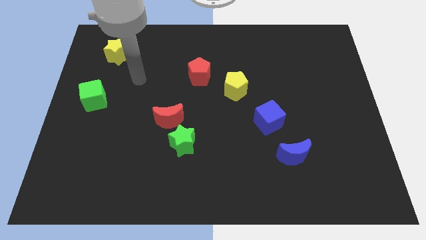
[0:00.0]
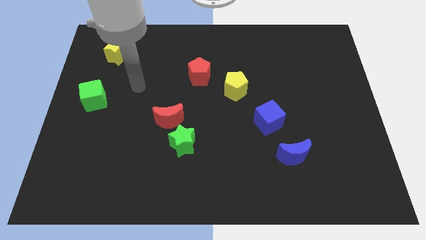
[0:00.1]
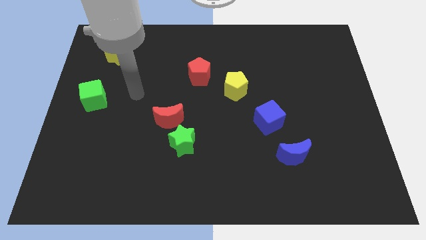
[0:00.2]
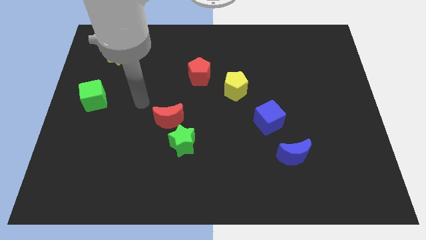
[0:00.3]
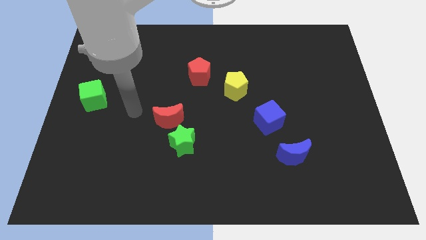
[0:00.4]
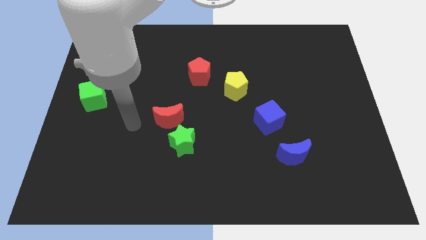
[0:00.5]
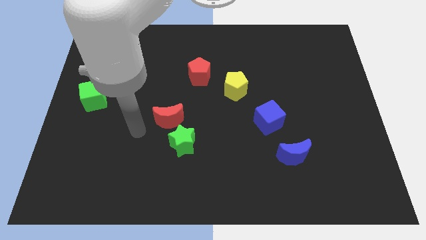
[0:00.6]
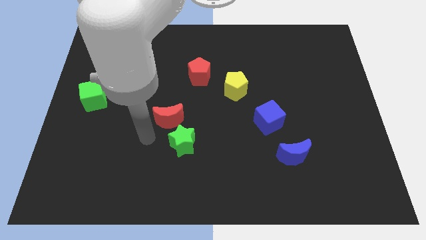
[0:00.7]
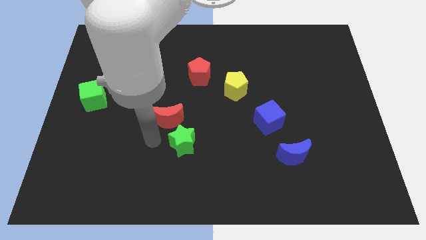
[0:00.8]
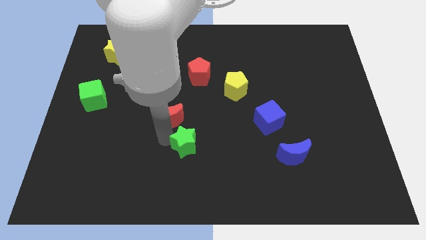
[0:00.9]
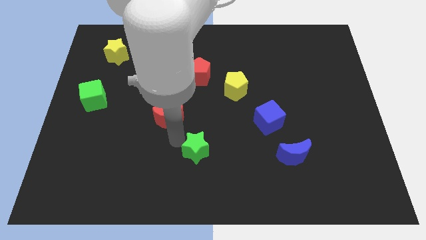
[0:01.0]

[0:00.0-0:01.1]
pull the red moon apart from the green star

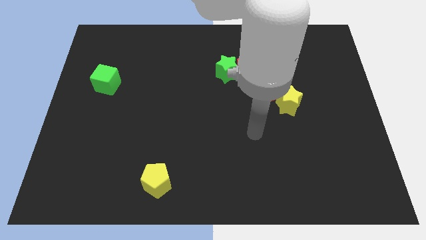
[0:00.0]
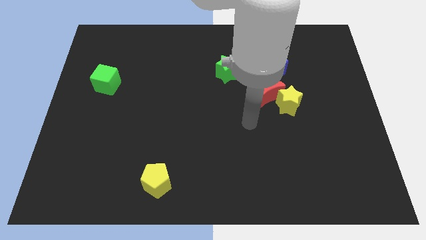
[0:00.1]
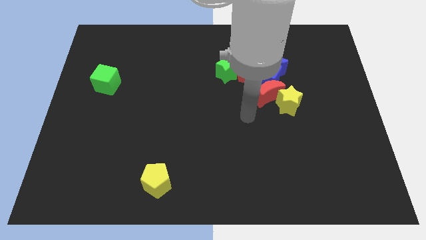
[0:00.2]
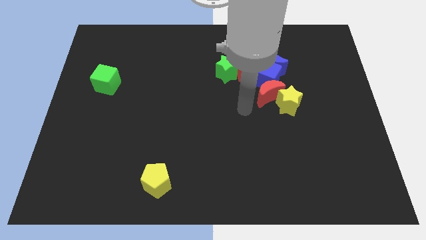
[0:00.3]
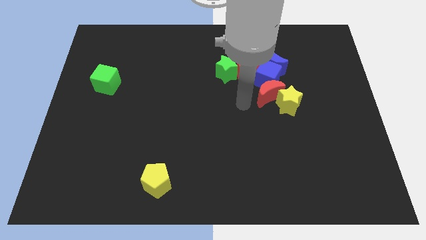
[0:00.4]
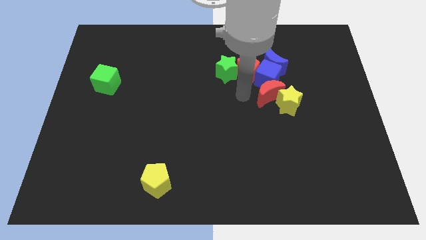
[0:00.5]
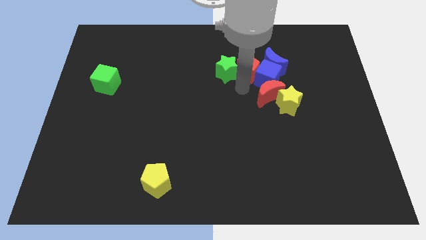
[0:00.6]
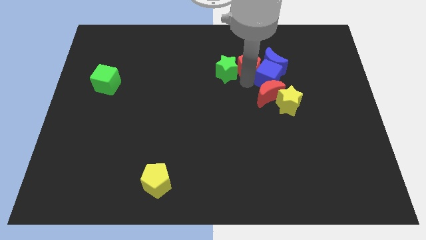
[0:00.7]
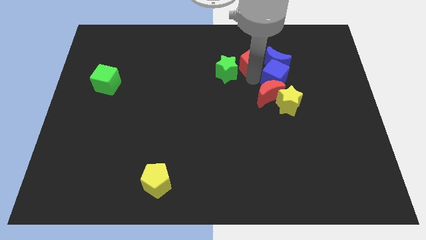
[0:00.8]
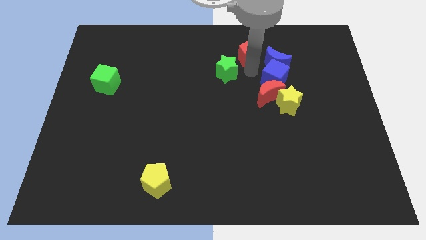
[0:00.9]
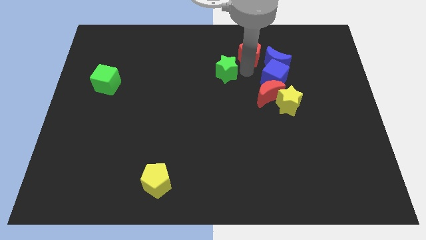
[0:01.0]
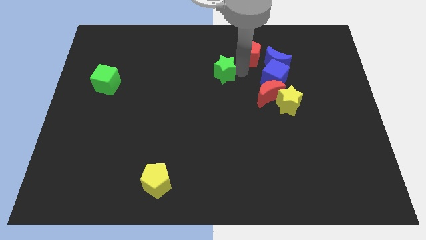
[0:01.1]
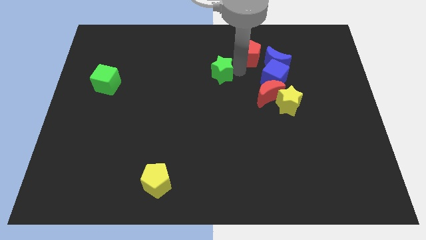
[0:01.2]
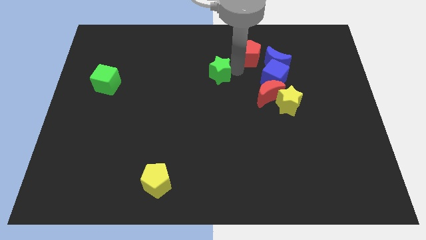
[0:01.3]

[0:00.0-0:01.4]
move the green star away from the red pentagon

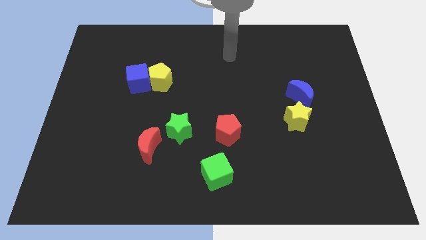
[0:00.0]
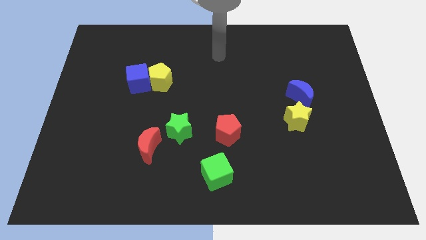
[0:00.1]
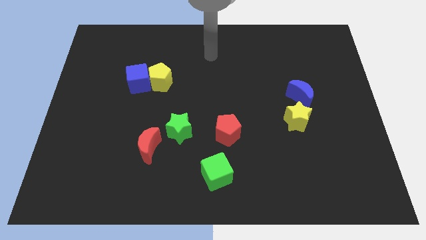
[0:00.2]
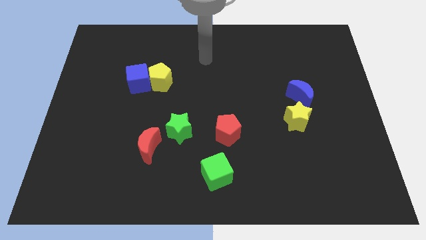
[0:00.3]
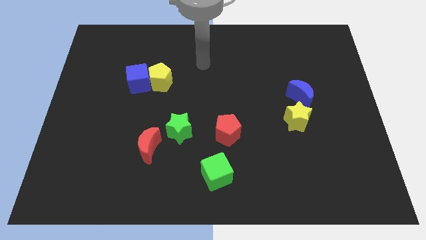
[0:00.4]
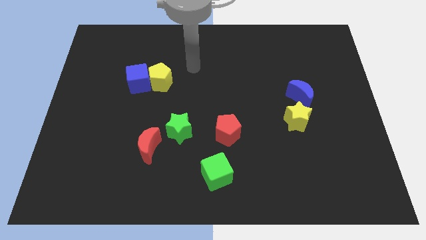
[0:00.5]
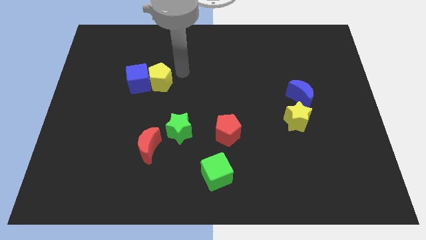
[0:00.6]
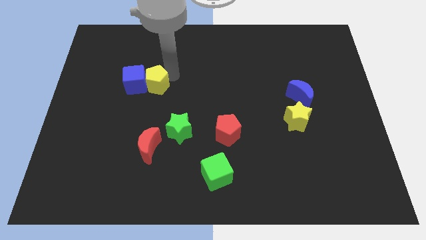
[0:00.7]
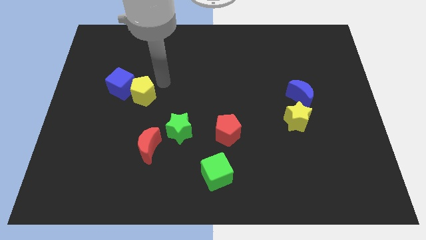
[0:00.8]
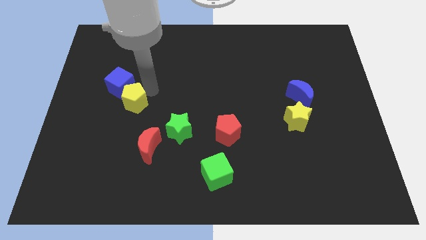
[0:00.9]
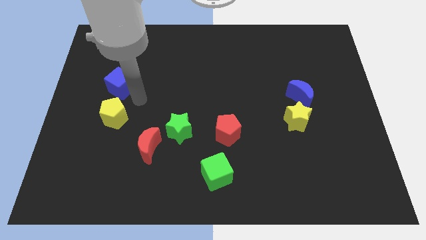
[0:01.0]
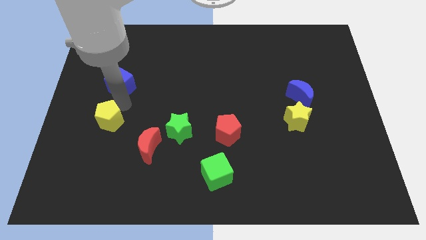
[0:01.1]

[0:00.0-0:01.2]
move the blue cube away from the yellow pentagon

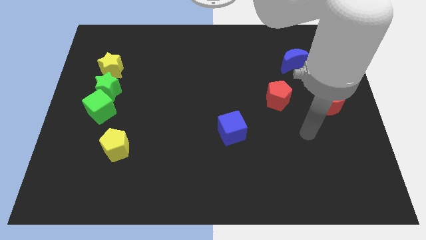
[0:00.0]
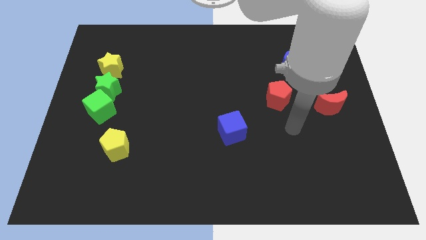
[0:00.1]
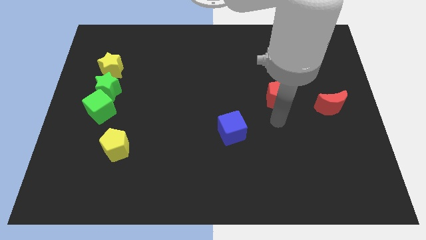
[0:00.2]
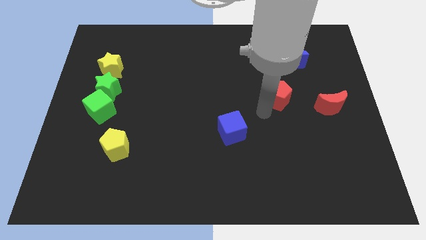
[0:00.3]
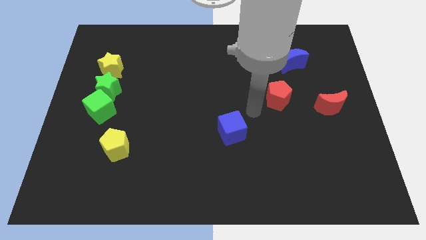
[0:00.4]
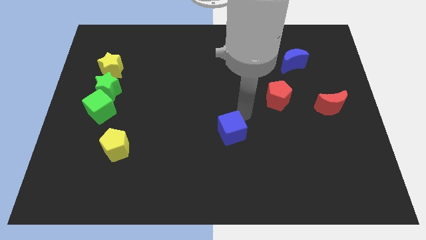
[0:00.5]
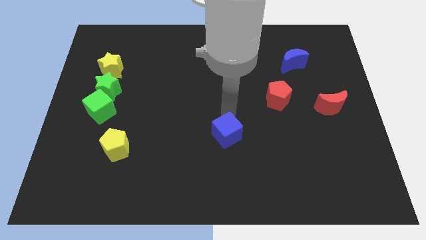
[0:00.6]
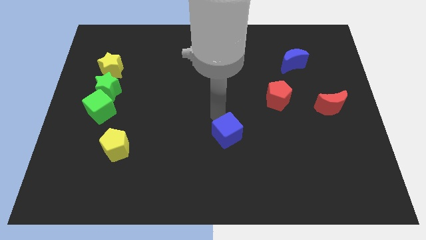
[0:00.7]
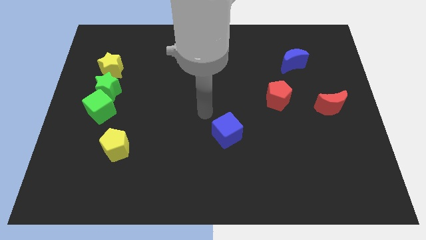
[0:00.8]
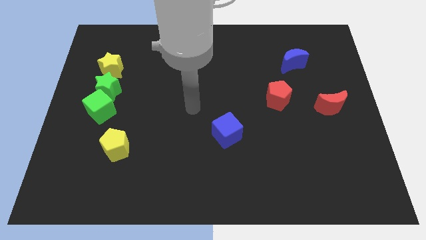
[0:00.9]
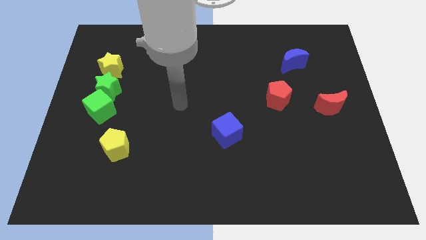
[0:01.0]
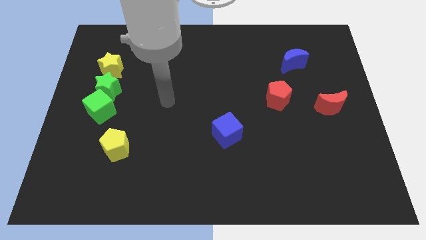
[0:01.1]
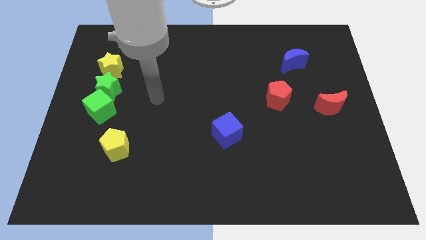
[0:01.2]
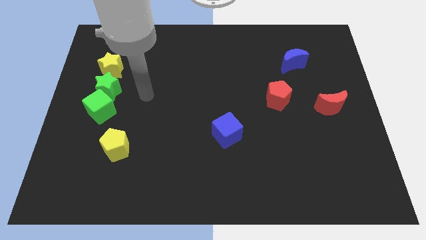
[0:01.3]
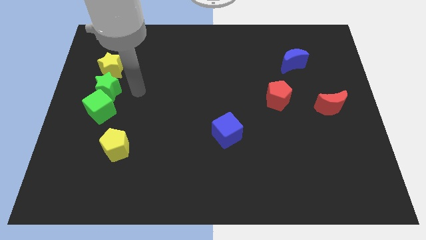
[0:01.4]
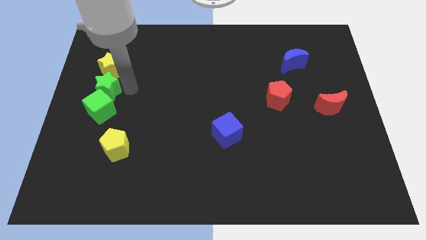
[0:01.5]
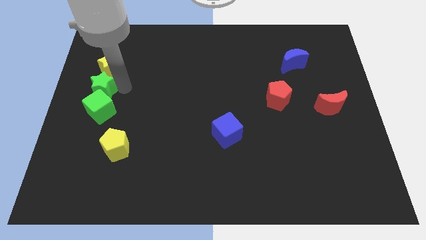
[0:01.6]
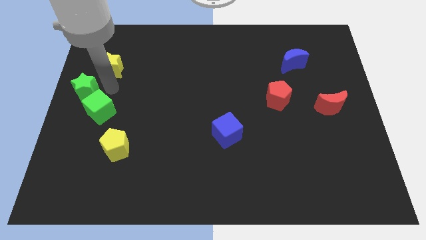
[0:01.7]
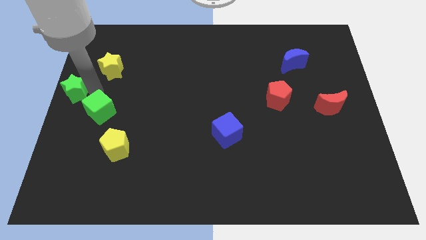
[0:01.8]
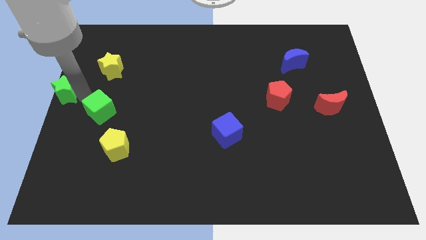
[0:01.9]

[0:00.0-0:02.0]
pull the green cube apart from the green star

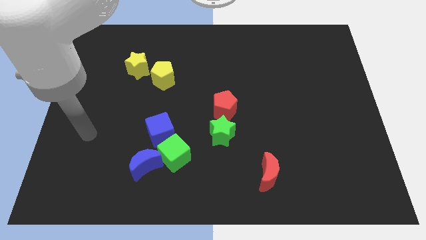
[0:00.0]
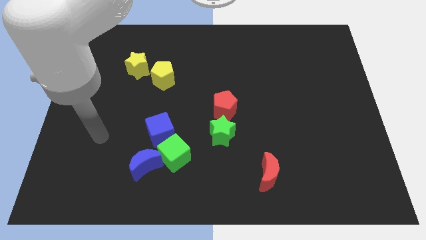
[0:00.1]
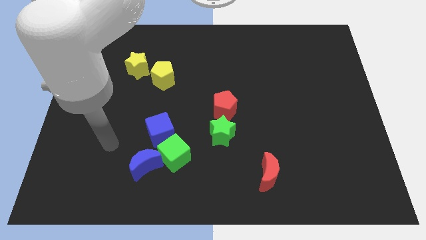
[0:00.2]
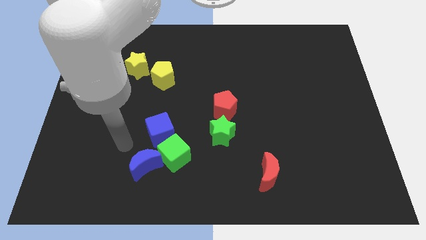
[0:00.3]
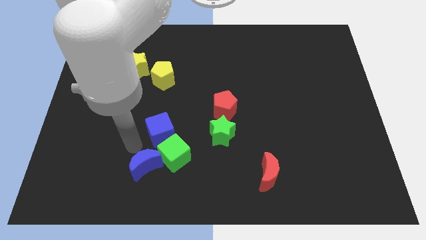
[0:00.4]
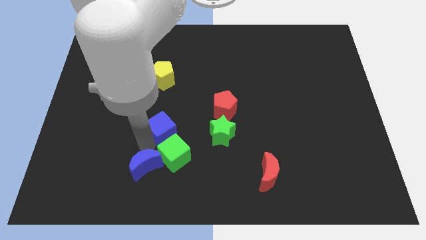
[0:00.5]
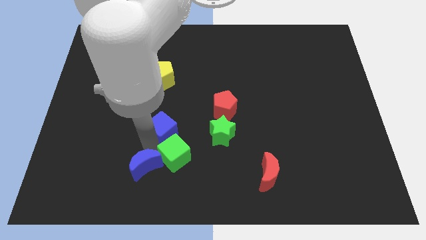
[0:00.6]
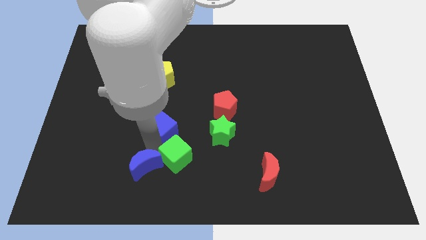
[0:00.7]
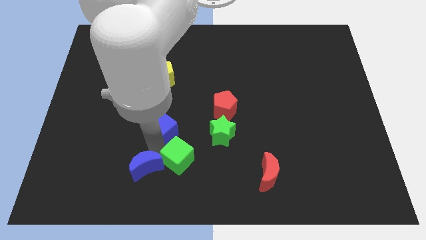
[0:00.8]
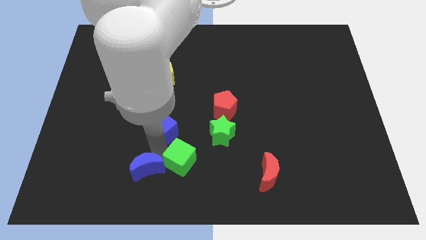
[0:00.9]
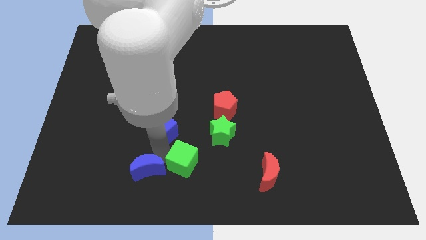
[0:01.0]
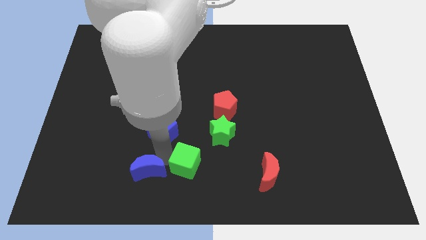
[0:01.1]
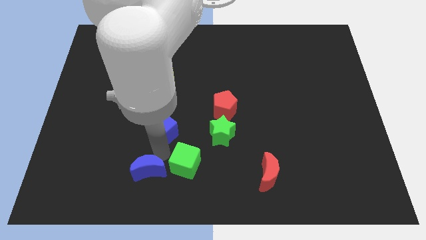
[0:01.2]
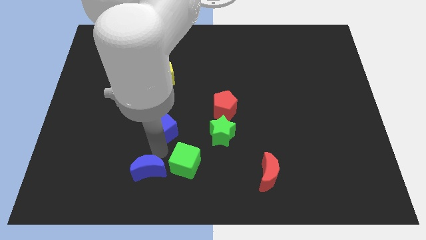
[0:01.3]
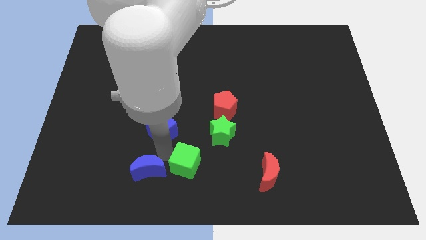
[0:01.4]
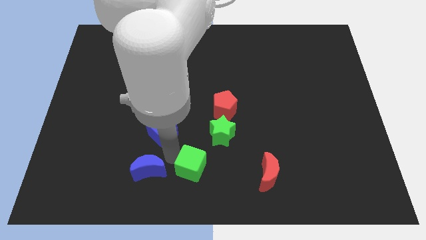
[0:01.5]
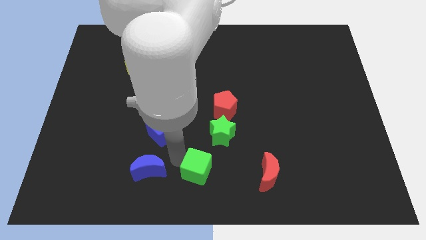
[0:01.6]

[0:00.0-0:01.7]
separate the green cube from the blue moon and blue cube

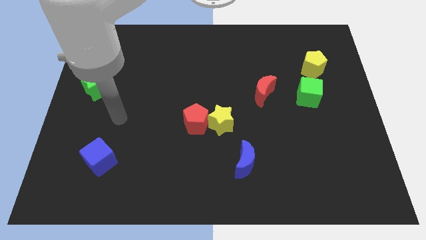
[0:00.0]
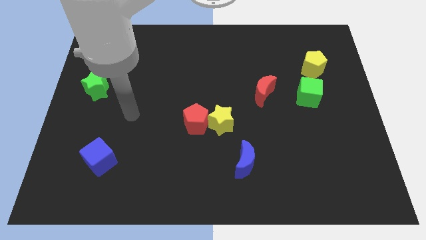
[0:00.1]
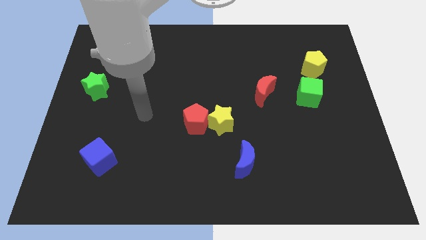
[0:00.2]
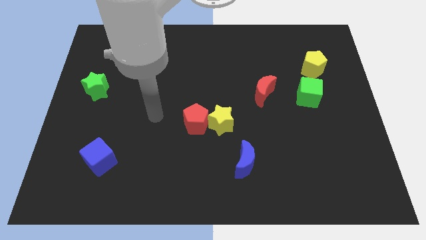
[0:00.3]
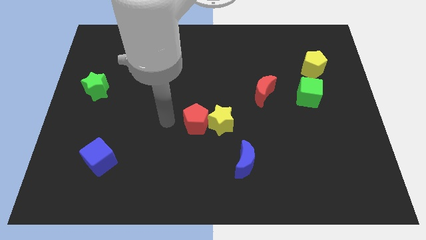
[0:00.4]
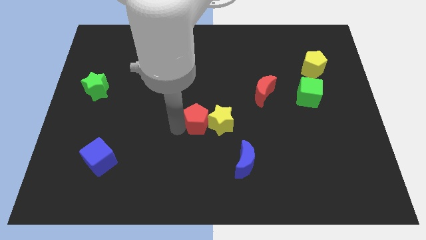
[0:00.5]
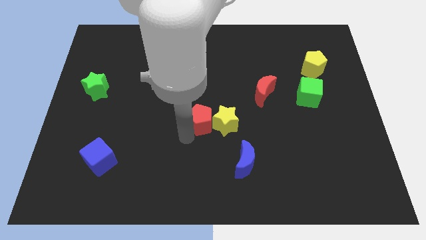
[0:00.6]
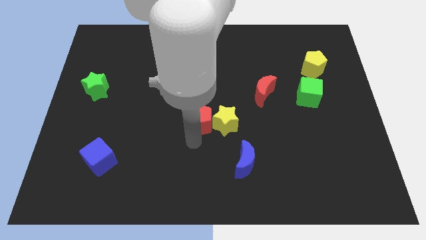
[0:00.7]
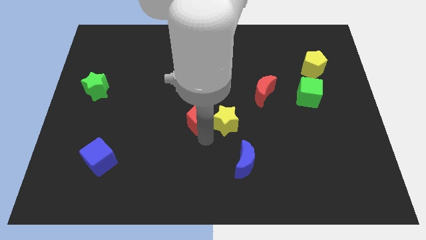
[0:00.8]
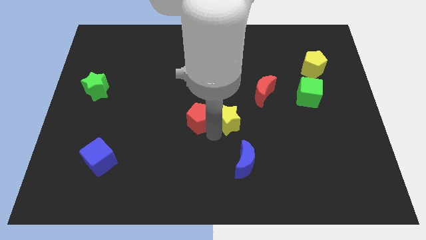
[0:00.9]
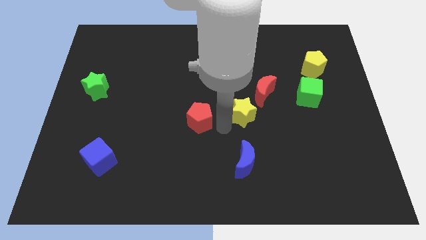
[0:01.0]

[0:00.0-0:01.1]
separate the red pentagon from the yellow star

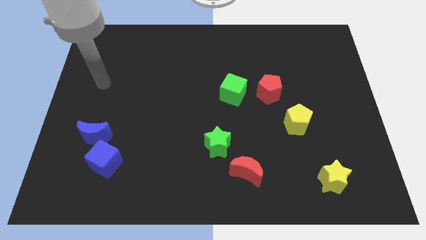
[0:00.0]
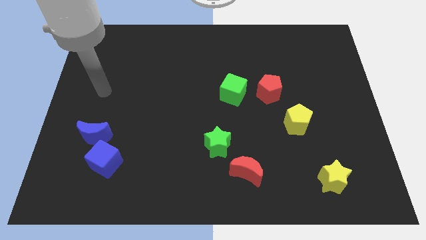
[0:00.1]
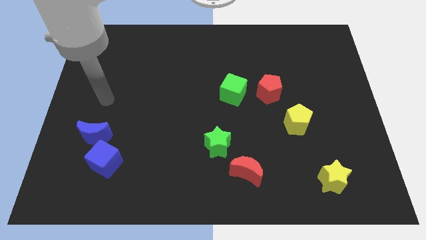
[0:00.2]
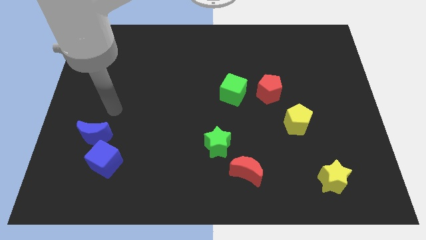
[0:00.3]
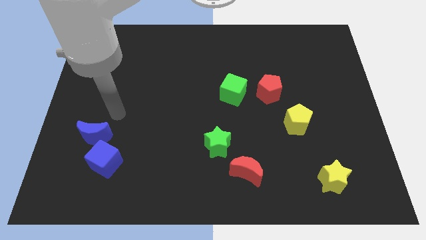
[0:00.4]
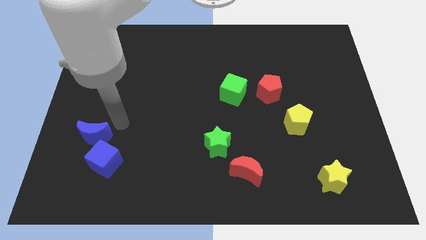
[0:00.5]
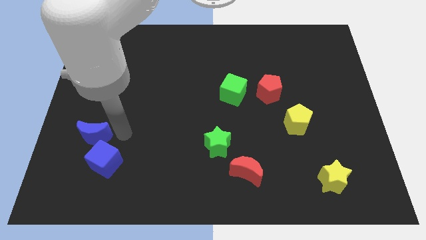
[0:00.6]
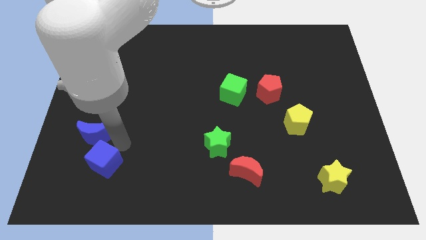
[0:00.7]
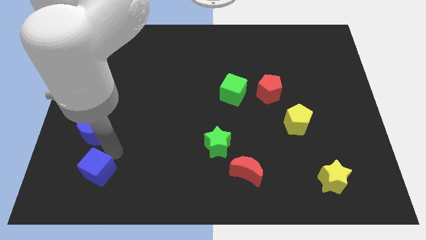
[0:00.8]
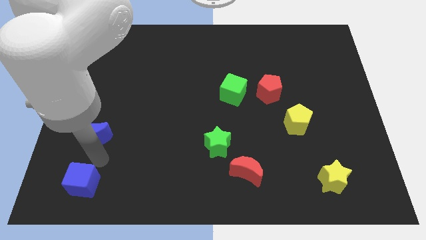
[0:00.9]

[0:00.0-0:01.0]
pull the blue moon apart from the blue cube

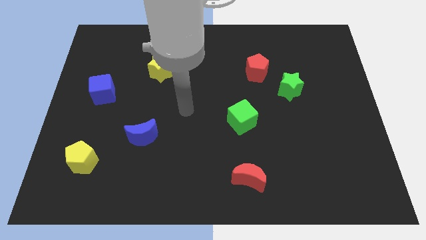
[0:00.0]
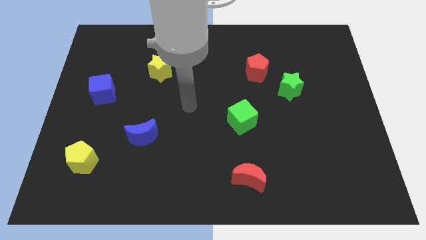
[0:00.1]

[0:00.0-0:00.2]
pull the red pentagon apart from the green star
